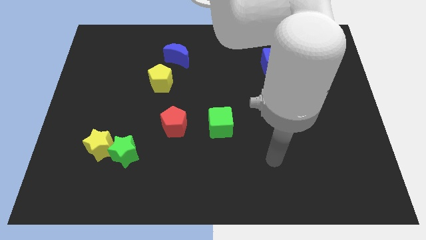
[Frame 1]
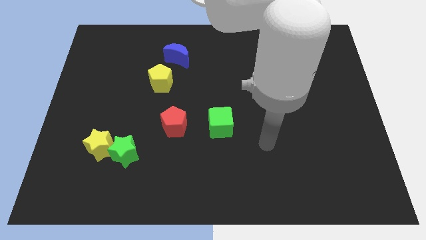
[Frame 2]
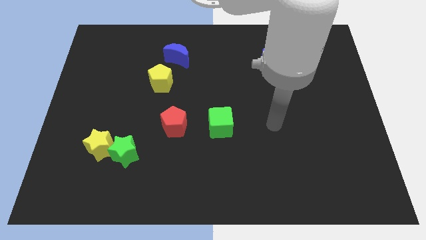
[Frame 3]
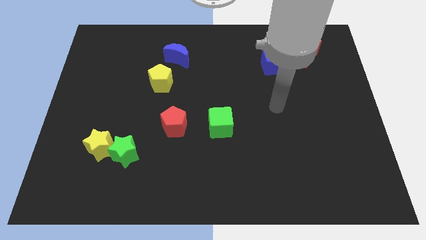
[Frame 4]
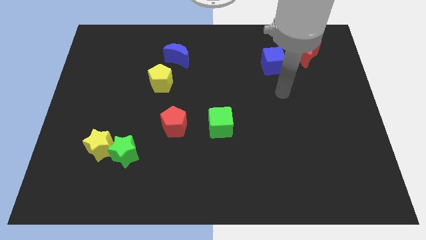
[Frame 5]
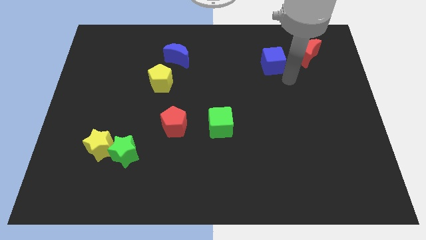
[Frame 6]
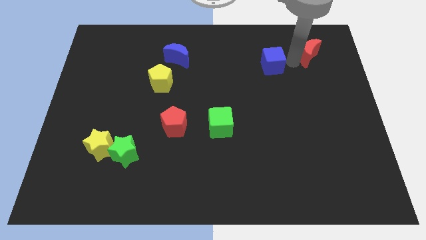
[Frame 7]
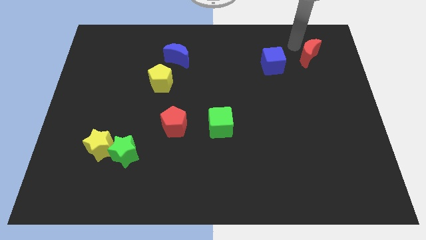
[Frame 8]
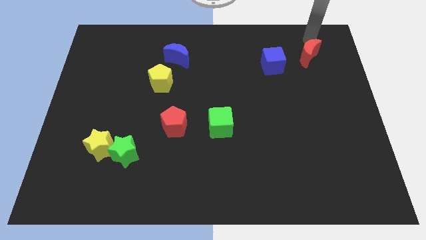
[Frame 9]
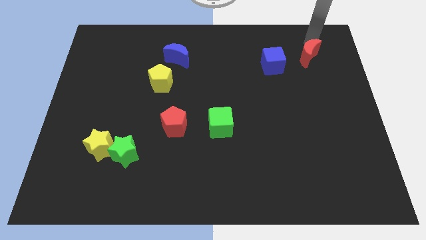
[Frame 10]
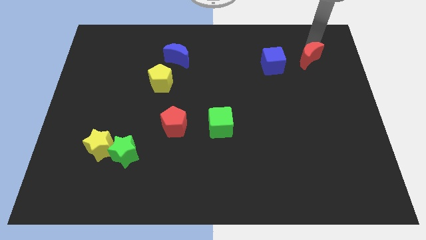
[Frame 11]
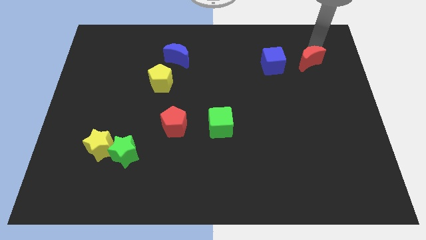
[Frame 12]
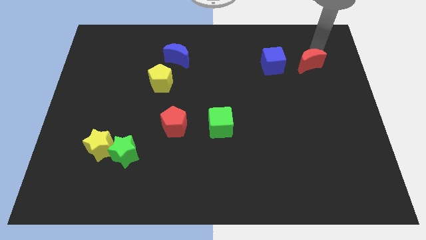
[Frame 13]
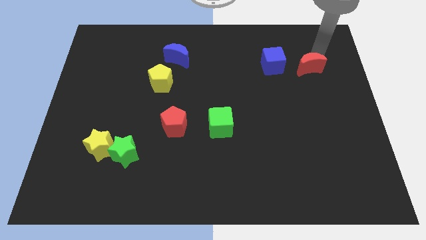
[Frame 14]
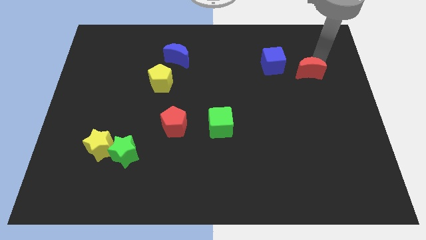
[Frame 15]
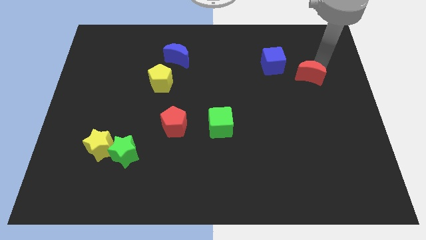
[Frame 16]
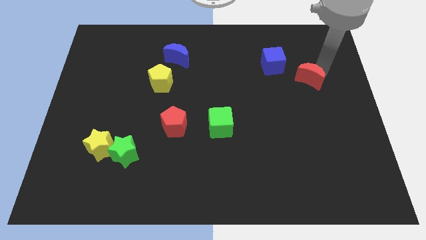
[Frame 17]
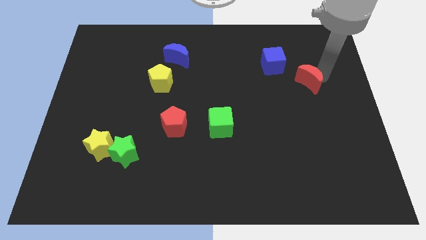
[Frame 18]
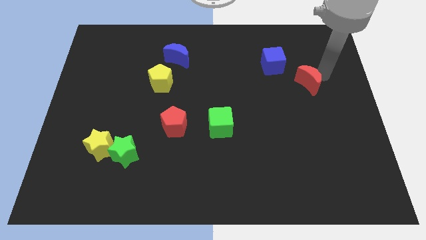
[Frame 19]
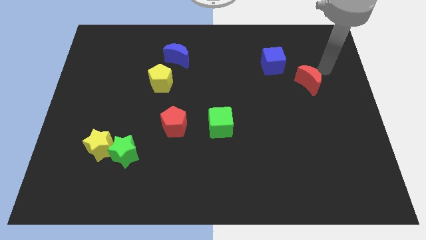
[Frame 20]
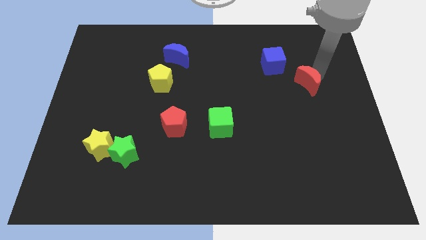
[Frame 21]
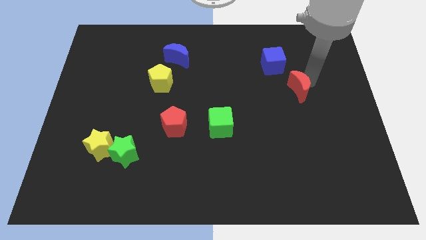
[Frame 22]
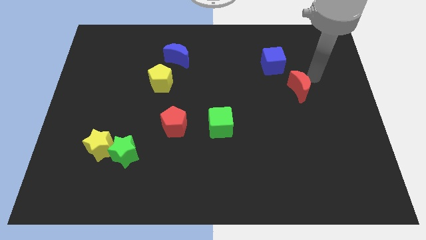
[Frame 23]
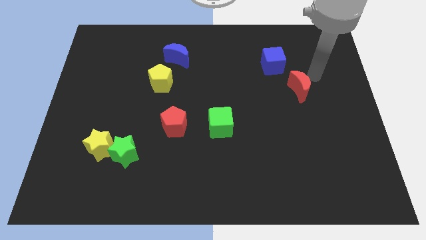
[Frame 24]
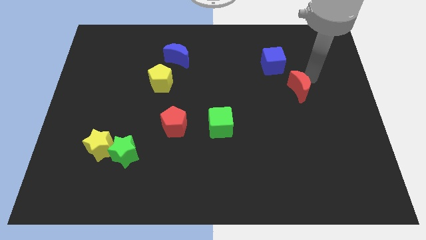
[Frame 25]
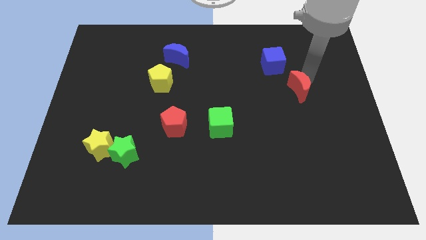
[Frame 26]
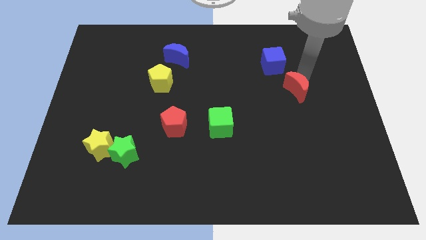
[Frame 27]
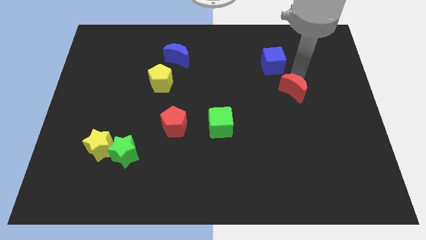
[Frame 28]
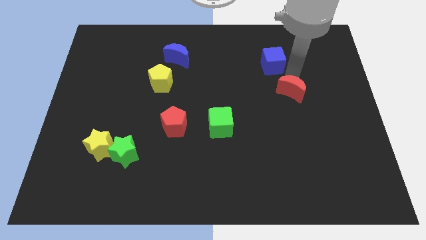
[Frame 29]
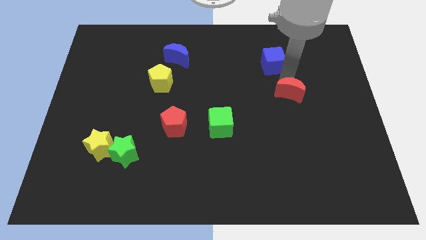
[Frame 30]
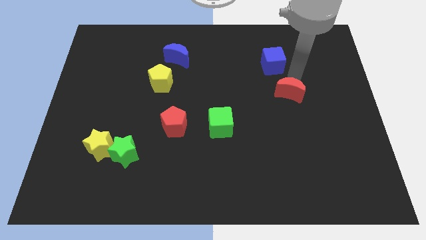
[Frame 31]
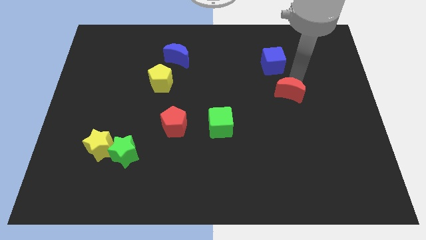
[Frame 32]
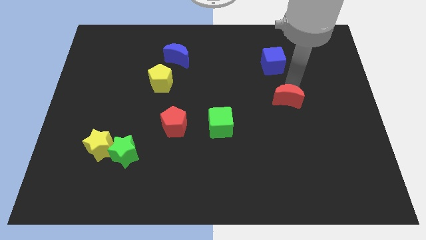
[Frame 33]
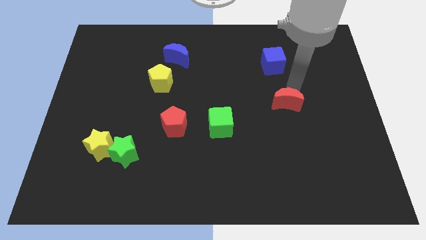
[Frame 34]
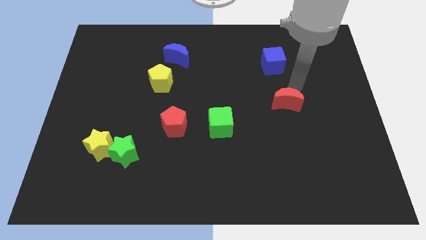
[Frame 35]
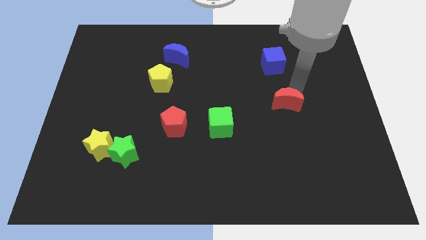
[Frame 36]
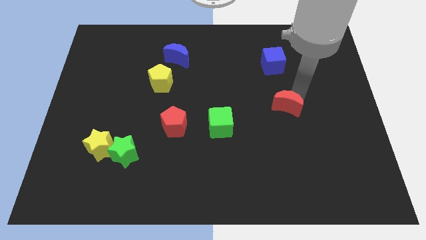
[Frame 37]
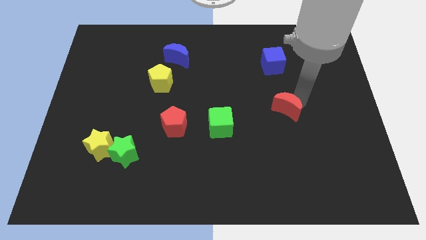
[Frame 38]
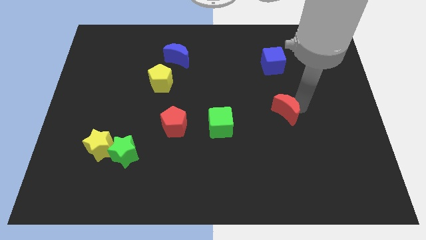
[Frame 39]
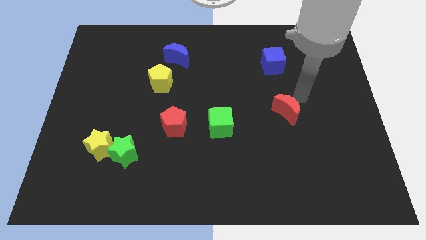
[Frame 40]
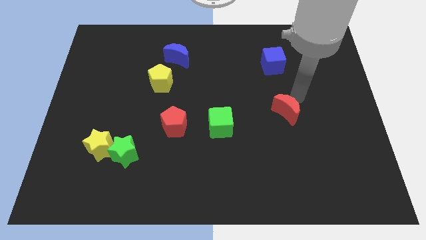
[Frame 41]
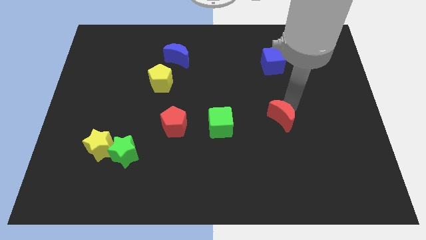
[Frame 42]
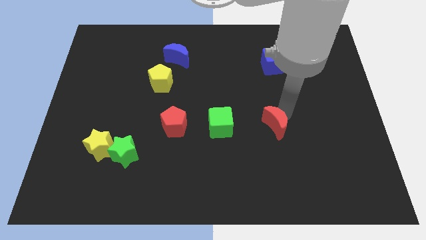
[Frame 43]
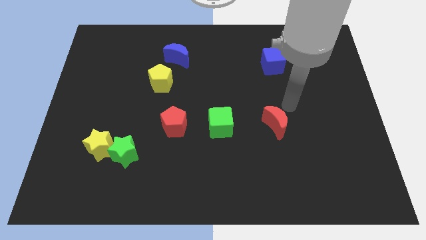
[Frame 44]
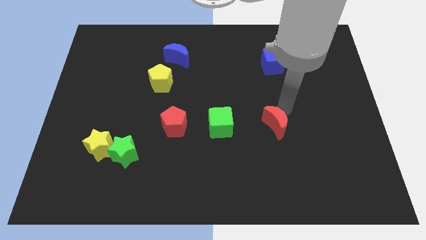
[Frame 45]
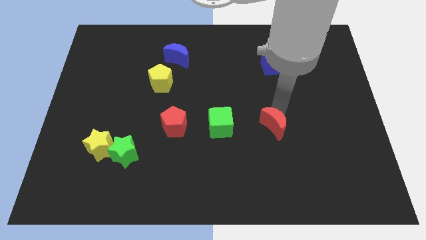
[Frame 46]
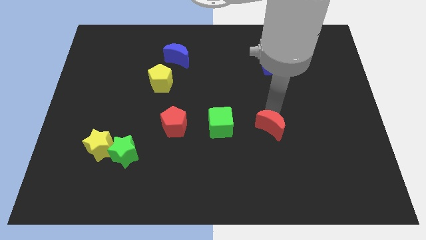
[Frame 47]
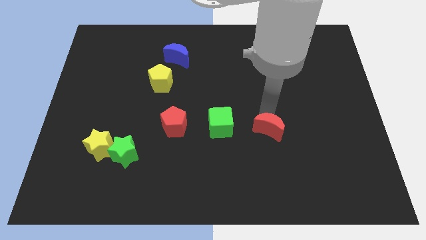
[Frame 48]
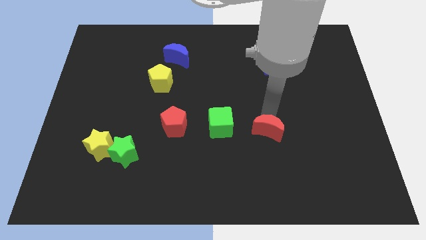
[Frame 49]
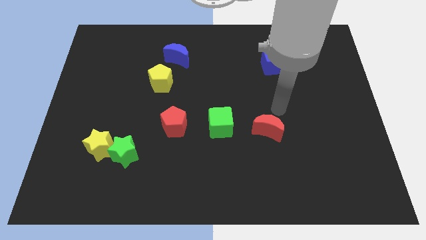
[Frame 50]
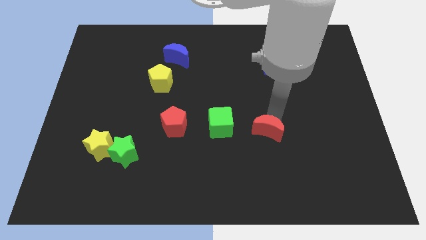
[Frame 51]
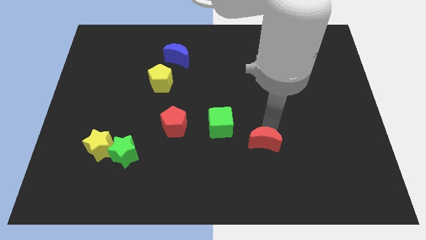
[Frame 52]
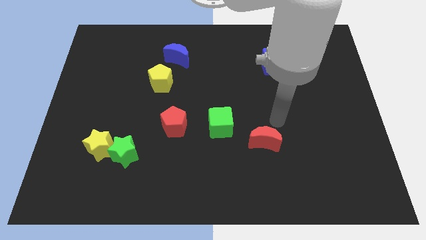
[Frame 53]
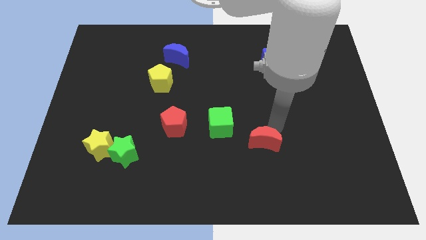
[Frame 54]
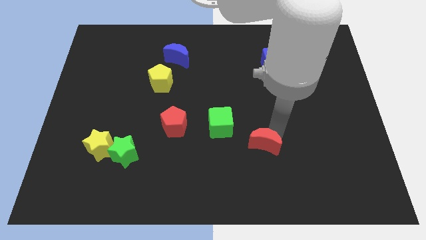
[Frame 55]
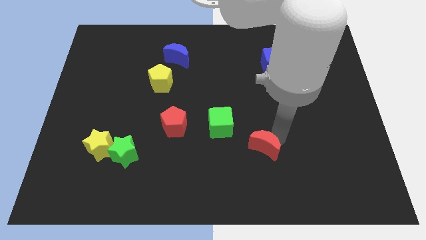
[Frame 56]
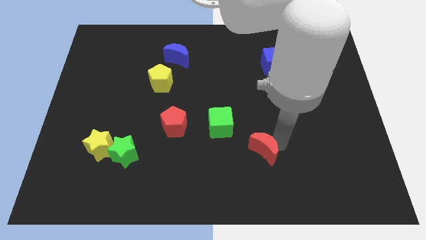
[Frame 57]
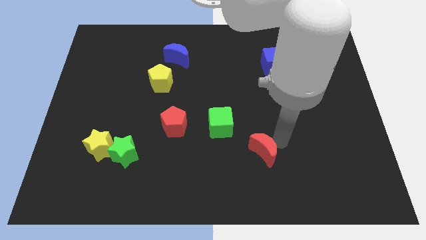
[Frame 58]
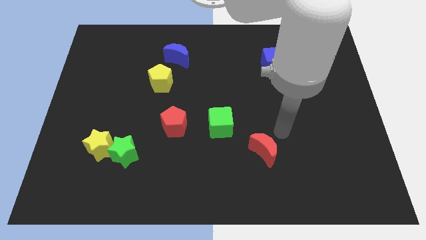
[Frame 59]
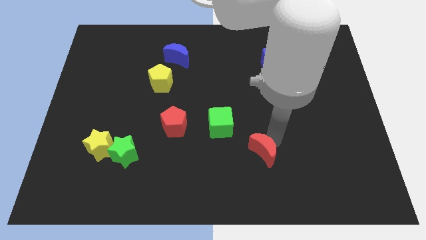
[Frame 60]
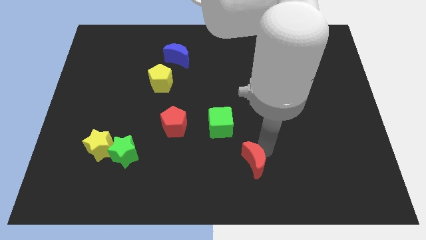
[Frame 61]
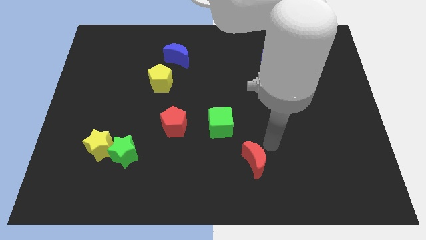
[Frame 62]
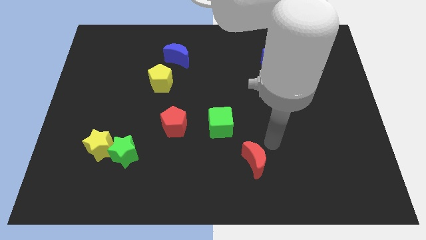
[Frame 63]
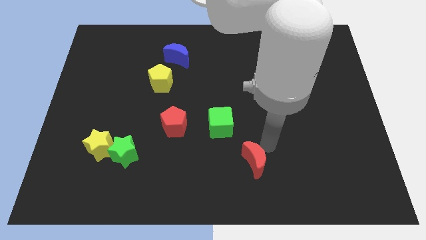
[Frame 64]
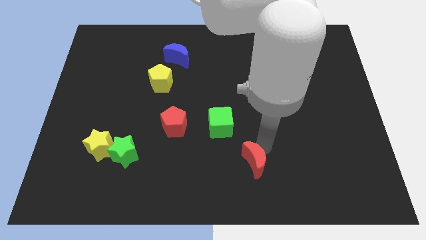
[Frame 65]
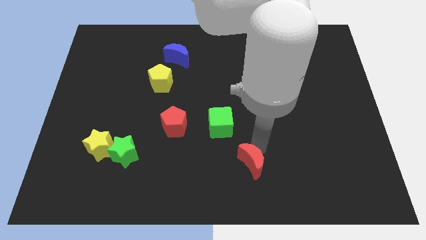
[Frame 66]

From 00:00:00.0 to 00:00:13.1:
move the red moon to the bottom side
